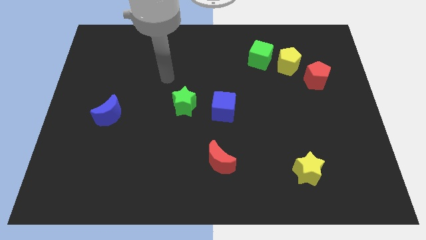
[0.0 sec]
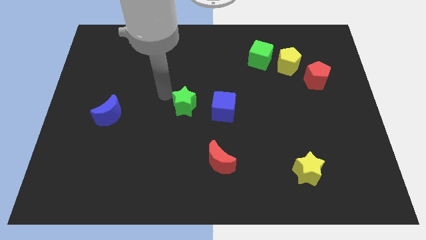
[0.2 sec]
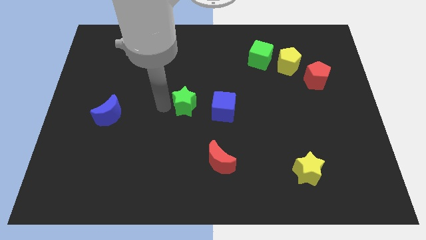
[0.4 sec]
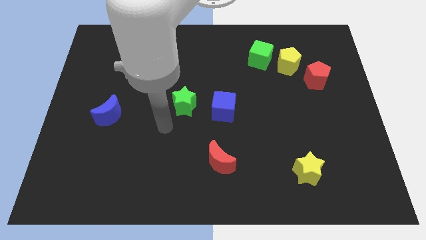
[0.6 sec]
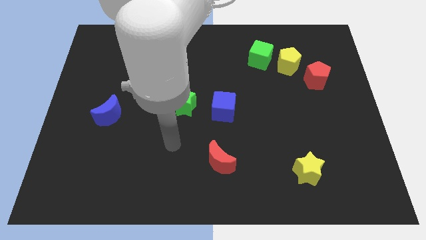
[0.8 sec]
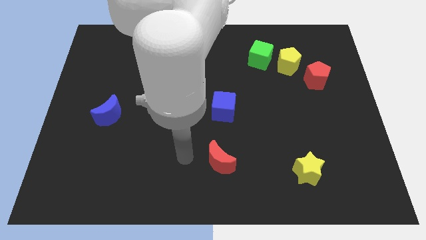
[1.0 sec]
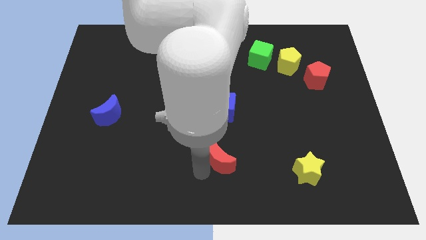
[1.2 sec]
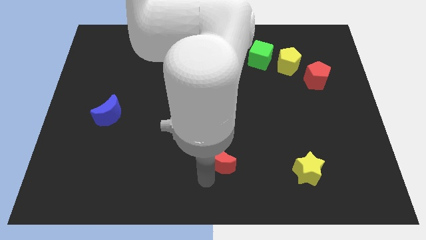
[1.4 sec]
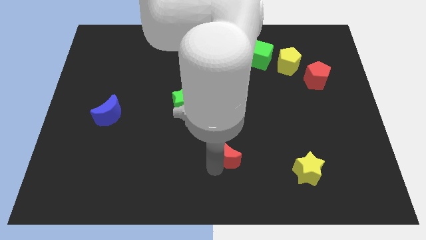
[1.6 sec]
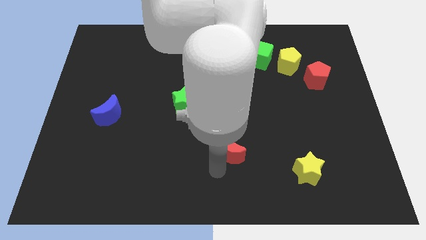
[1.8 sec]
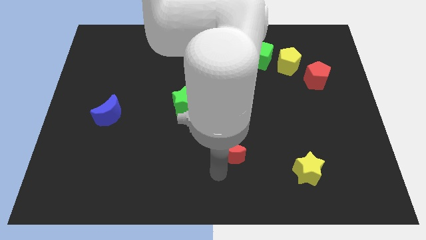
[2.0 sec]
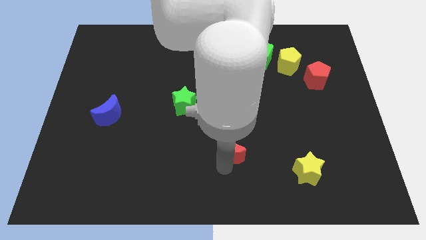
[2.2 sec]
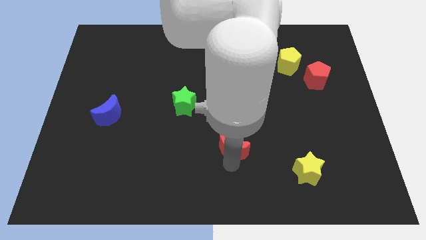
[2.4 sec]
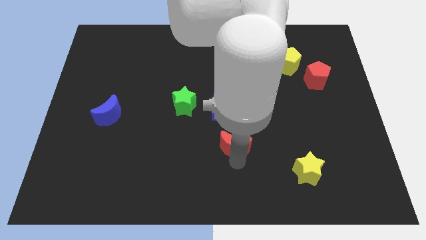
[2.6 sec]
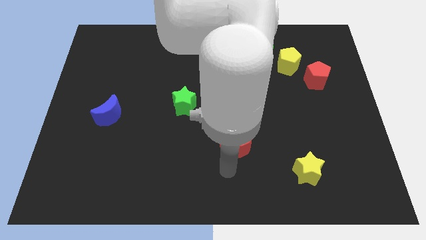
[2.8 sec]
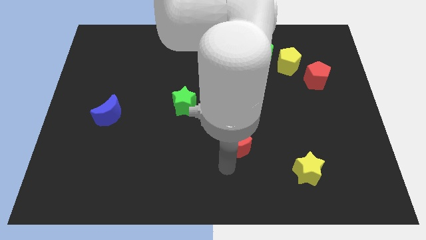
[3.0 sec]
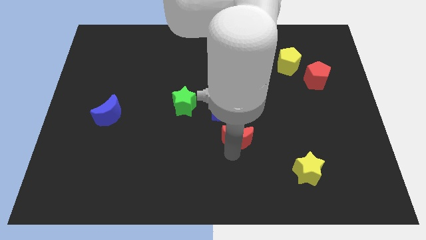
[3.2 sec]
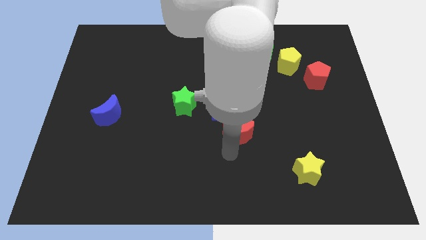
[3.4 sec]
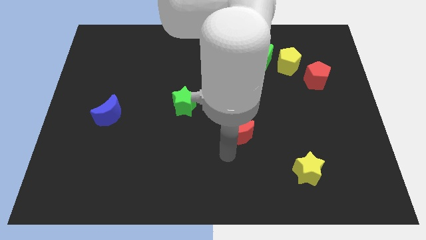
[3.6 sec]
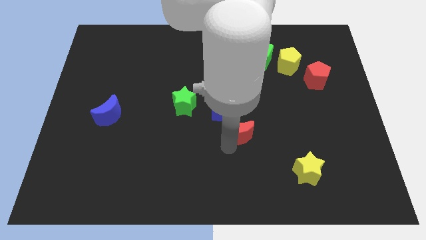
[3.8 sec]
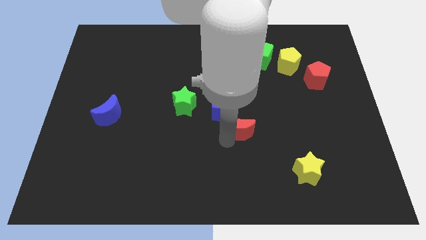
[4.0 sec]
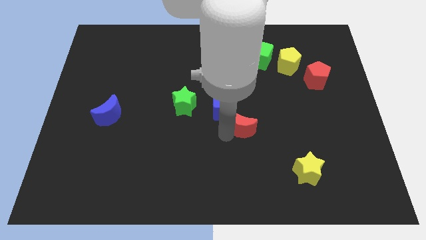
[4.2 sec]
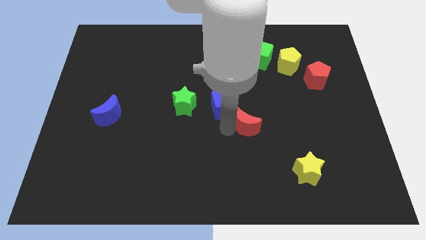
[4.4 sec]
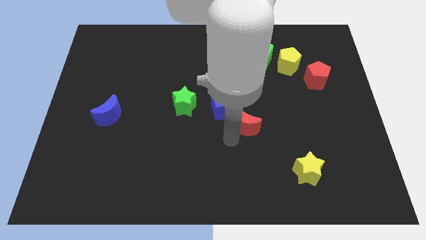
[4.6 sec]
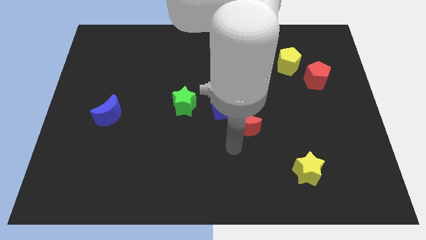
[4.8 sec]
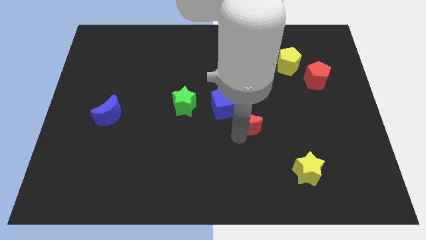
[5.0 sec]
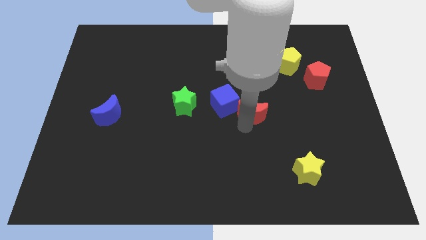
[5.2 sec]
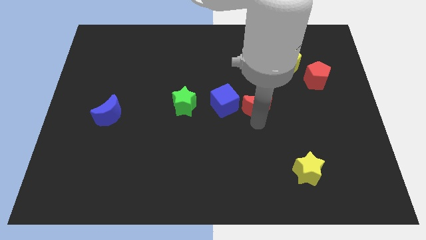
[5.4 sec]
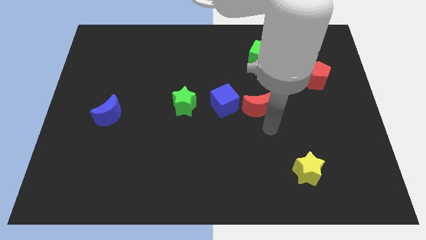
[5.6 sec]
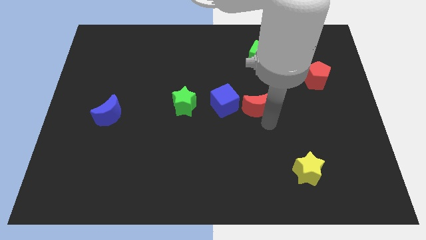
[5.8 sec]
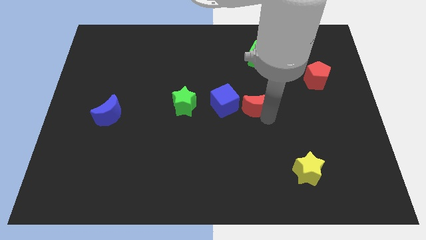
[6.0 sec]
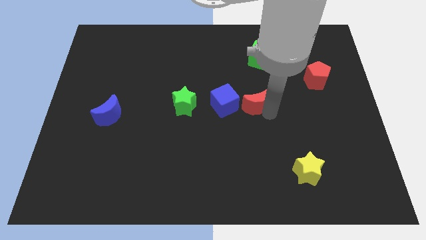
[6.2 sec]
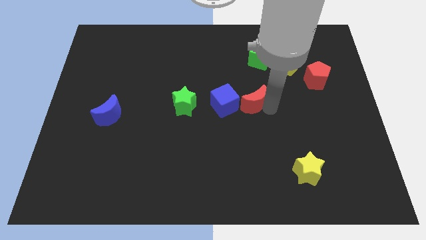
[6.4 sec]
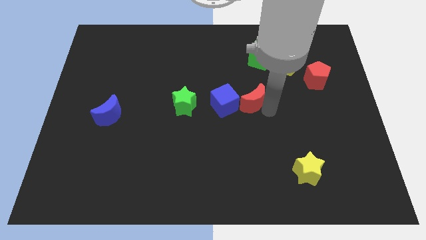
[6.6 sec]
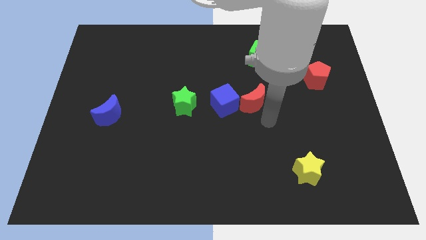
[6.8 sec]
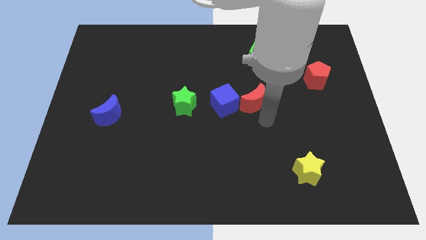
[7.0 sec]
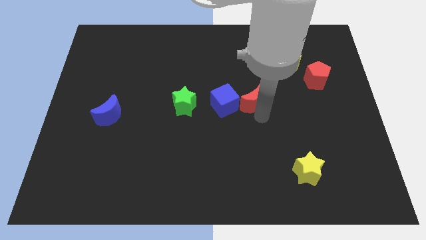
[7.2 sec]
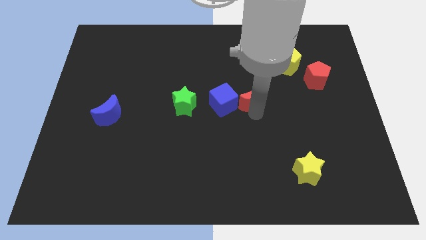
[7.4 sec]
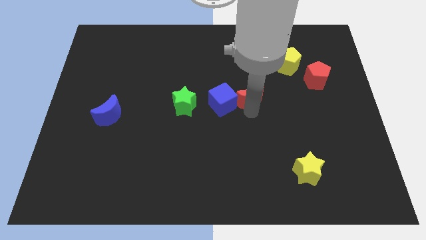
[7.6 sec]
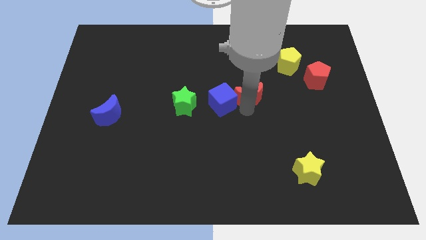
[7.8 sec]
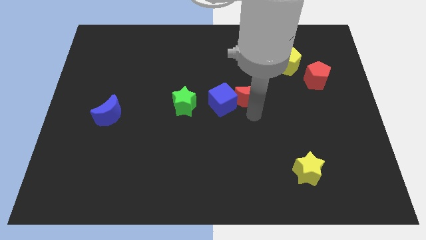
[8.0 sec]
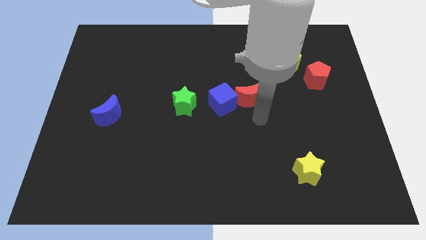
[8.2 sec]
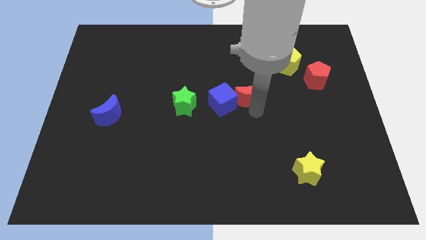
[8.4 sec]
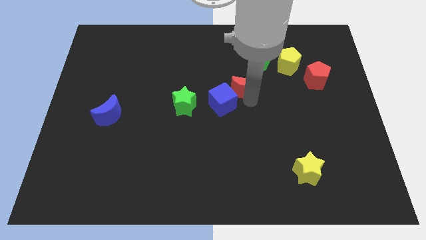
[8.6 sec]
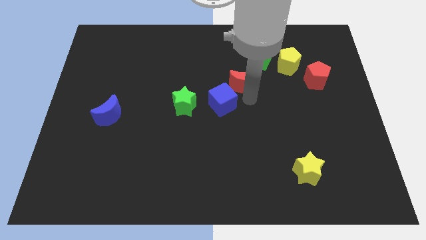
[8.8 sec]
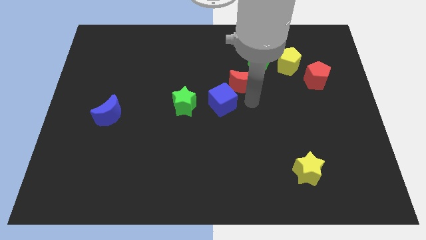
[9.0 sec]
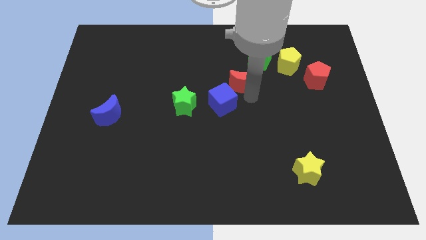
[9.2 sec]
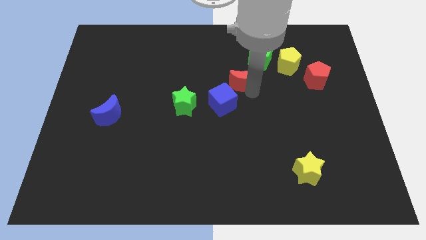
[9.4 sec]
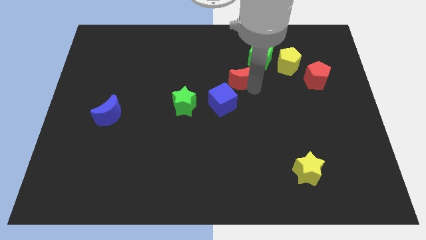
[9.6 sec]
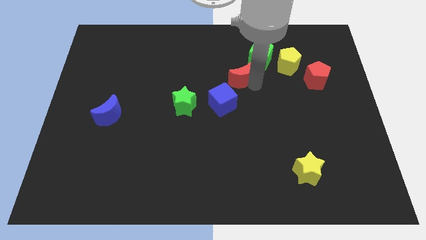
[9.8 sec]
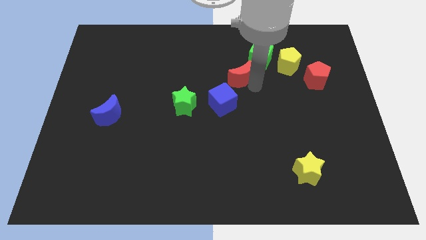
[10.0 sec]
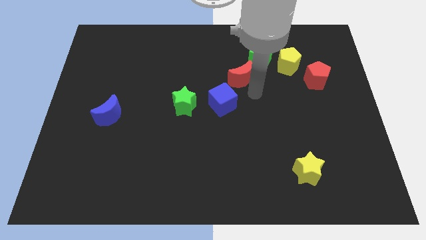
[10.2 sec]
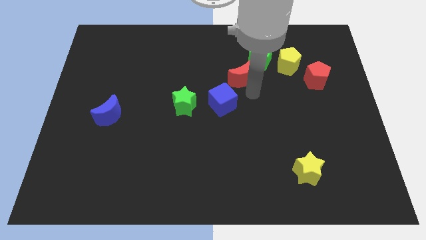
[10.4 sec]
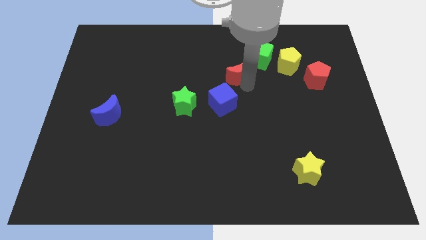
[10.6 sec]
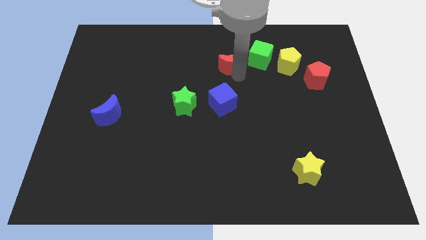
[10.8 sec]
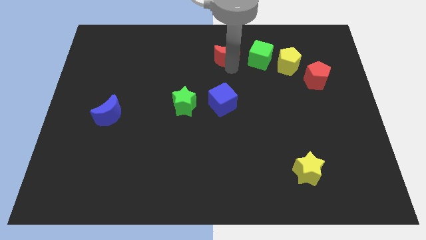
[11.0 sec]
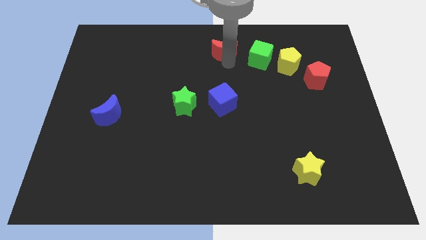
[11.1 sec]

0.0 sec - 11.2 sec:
push the red moon to the top side

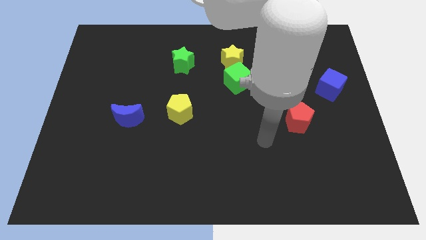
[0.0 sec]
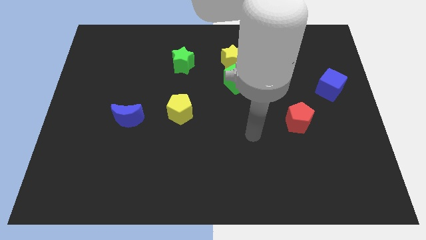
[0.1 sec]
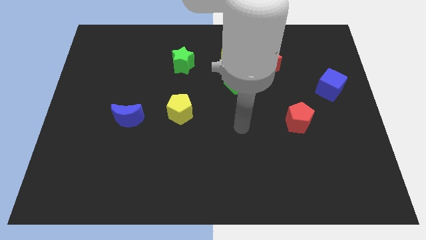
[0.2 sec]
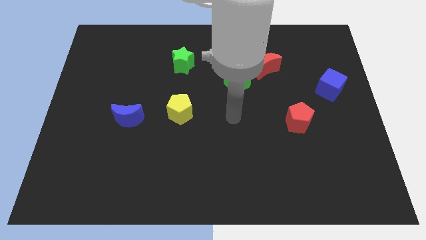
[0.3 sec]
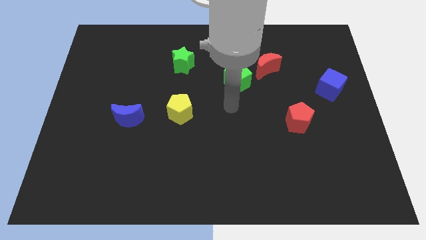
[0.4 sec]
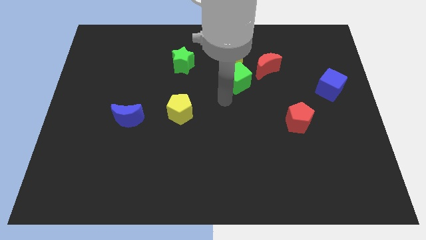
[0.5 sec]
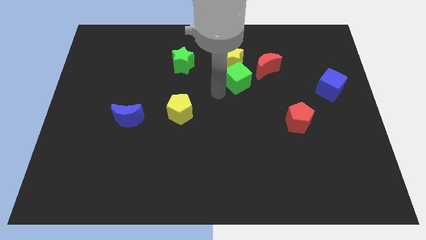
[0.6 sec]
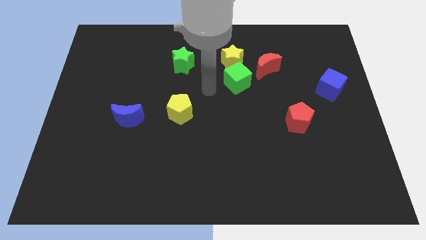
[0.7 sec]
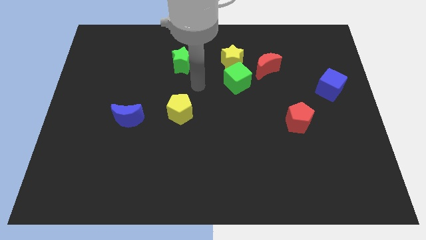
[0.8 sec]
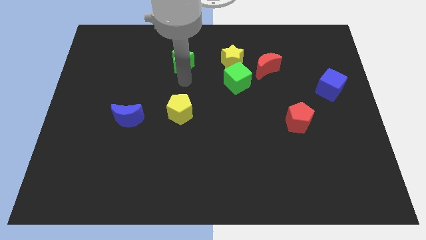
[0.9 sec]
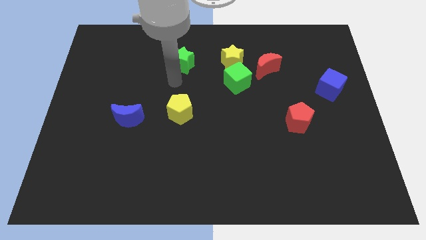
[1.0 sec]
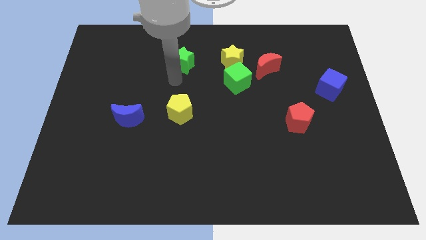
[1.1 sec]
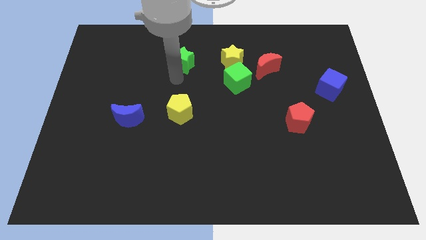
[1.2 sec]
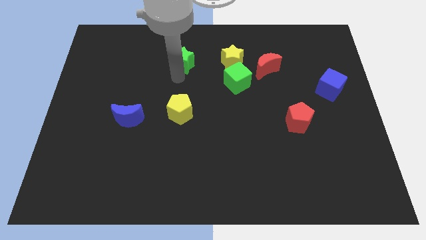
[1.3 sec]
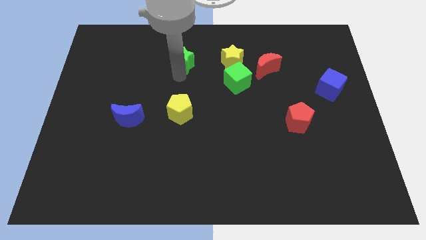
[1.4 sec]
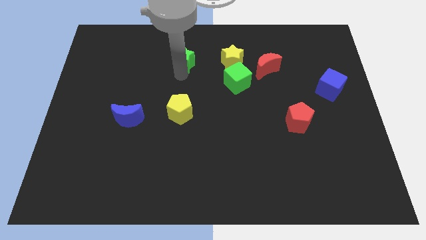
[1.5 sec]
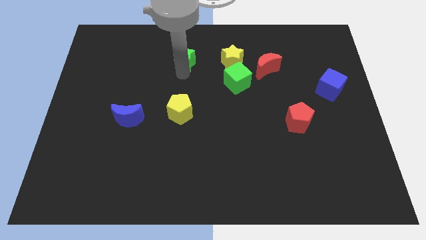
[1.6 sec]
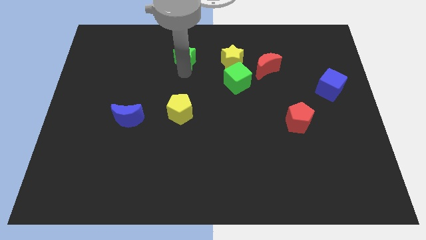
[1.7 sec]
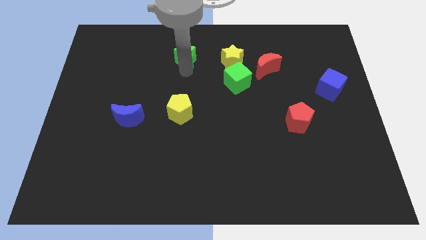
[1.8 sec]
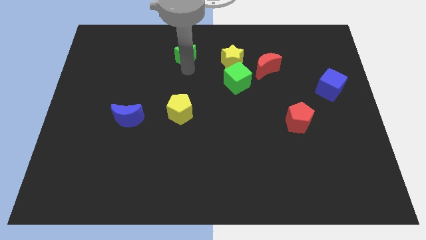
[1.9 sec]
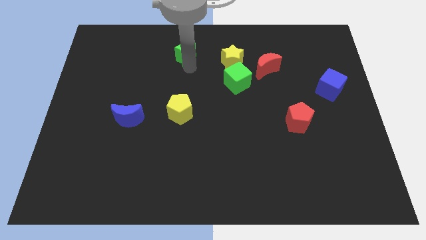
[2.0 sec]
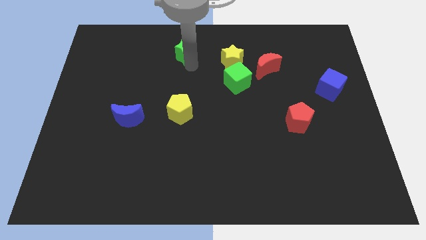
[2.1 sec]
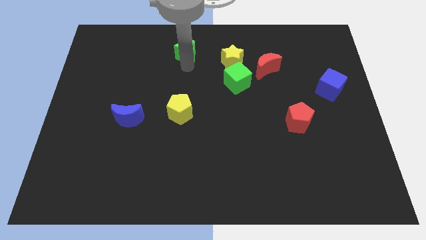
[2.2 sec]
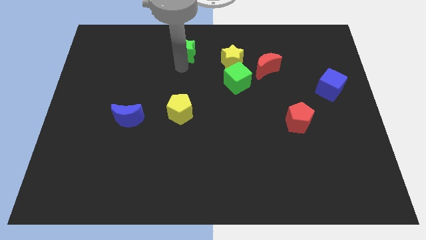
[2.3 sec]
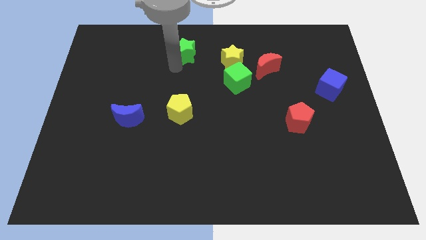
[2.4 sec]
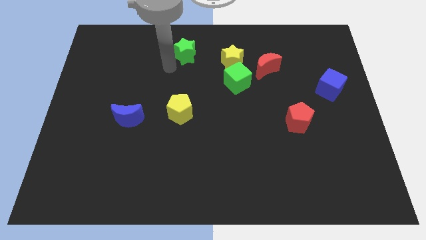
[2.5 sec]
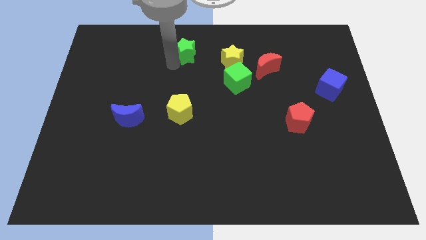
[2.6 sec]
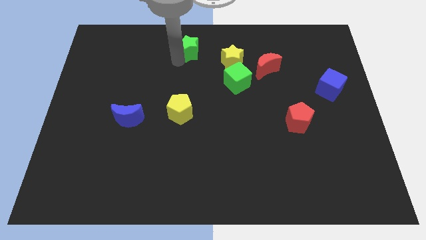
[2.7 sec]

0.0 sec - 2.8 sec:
slide the green star to the top
